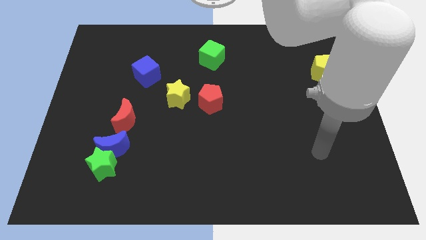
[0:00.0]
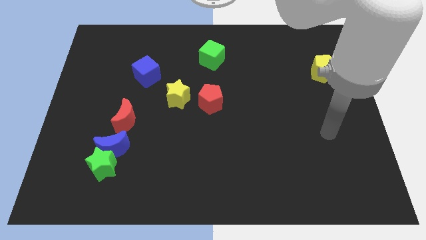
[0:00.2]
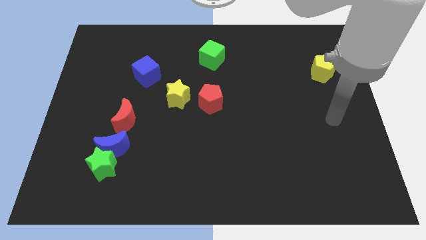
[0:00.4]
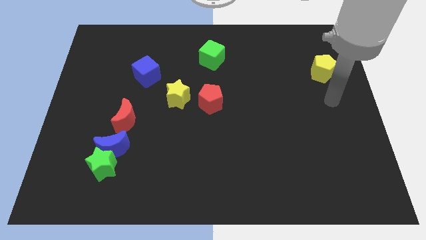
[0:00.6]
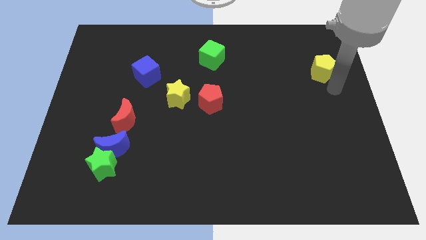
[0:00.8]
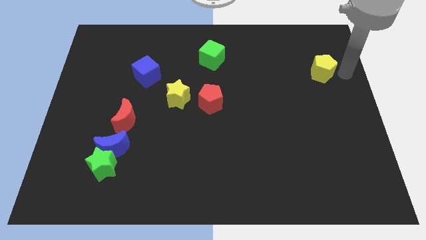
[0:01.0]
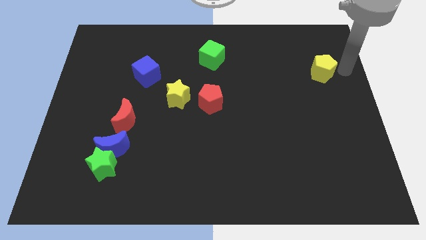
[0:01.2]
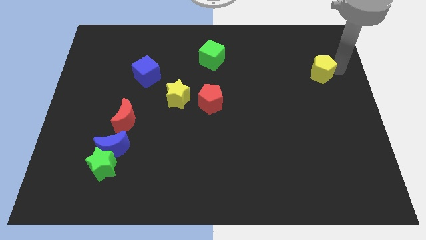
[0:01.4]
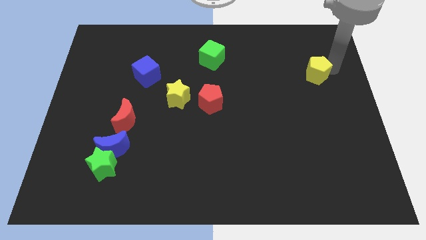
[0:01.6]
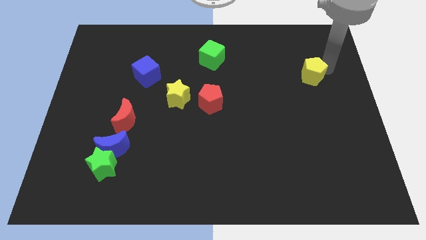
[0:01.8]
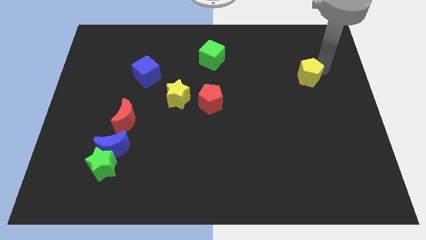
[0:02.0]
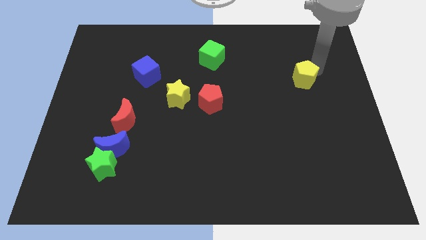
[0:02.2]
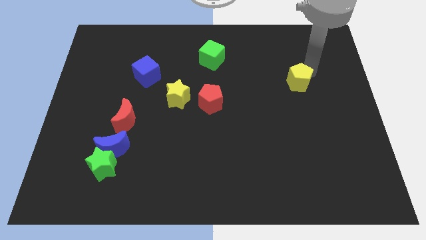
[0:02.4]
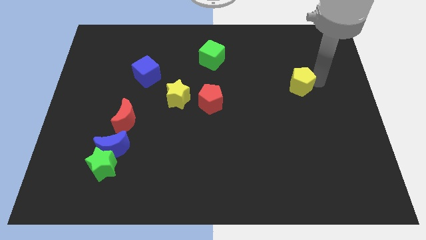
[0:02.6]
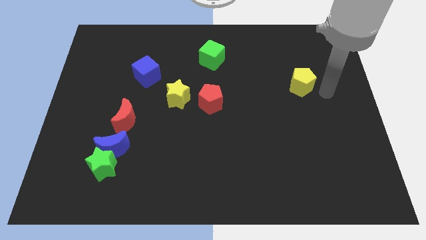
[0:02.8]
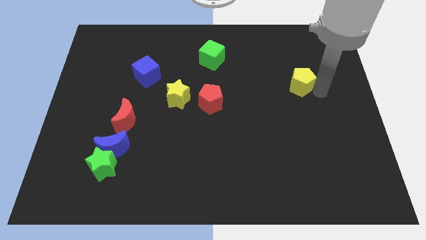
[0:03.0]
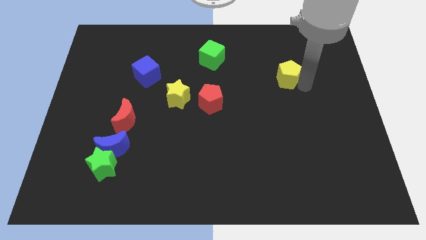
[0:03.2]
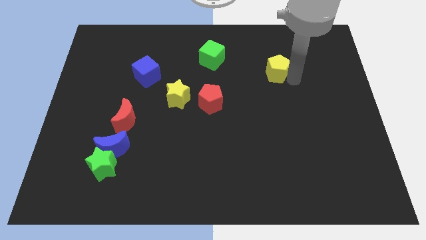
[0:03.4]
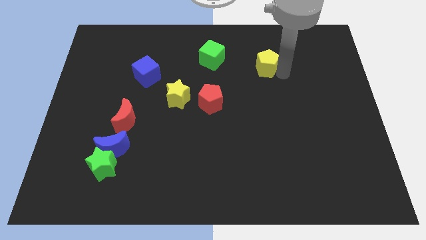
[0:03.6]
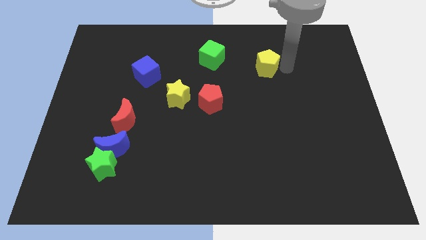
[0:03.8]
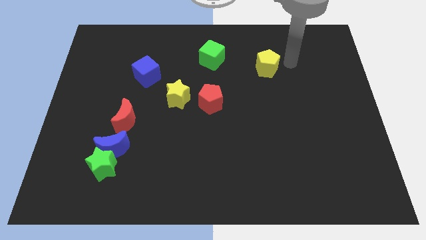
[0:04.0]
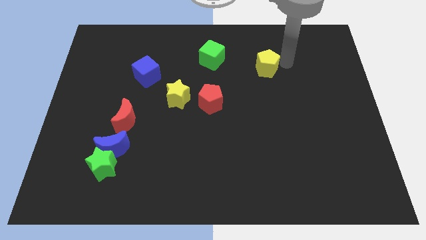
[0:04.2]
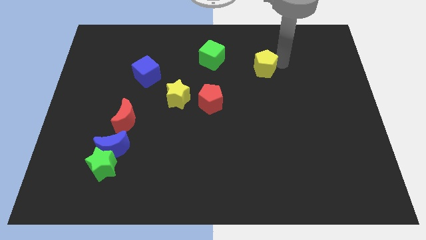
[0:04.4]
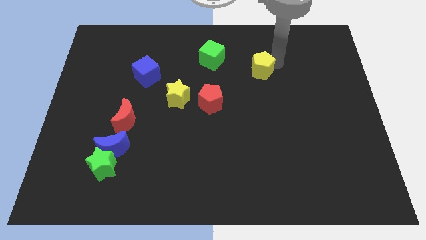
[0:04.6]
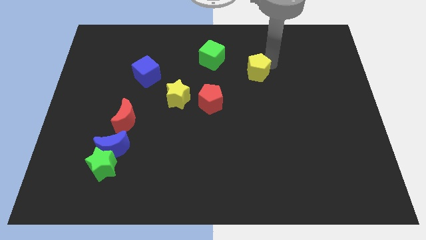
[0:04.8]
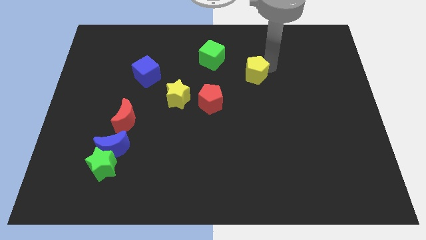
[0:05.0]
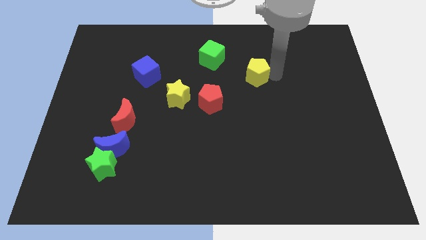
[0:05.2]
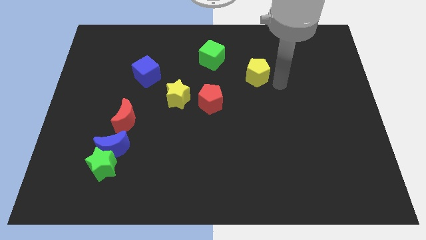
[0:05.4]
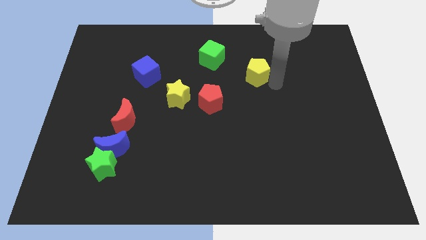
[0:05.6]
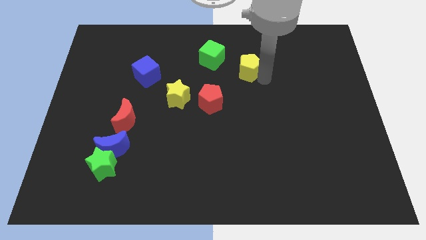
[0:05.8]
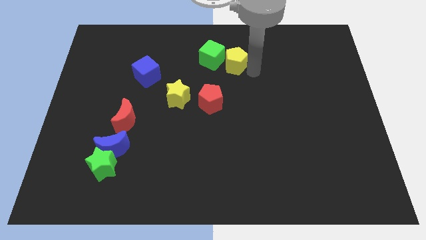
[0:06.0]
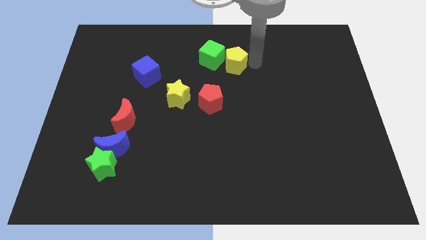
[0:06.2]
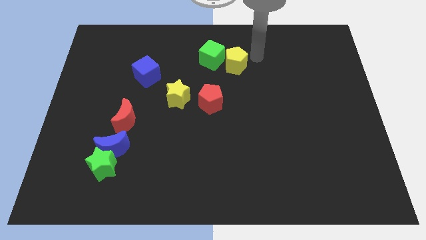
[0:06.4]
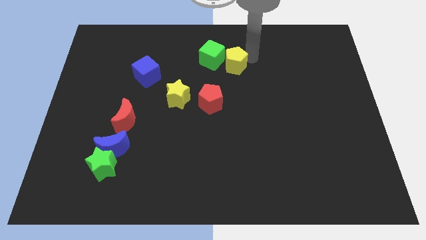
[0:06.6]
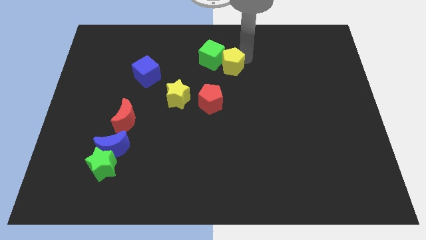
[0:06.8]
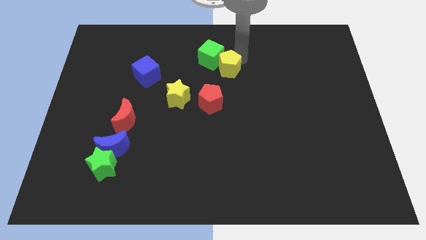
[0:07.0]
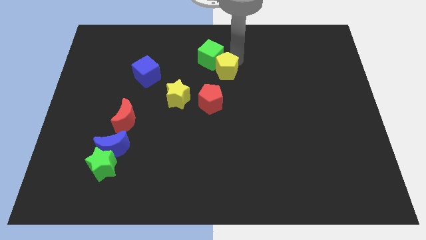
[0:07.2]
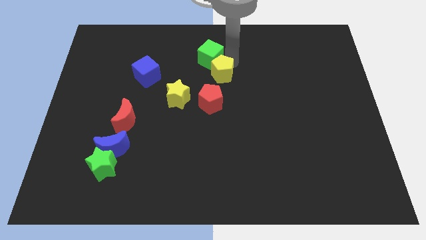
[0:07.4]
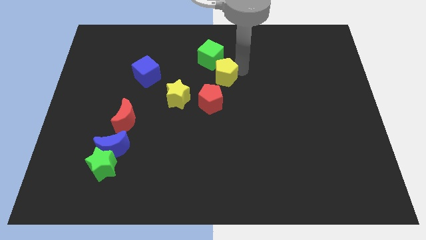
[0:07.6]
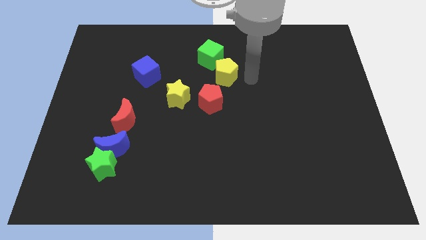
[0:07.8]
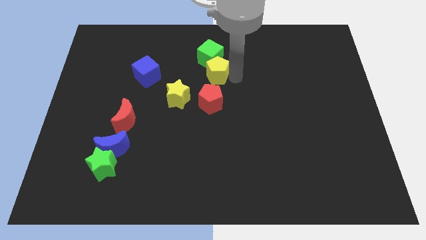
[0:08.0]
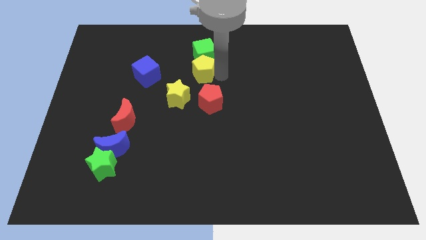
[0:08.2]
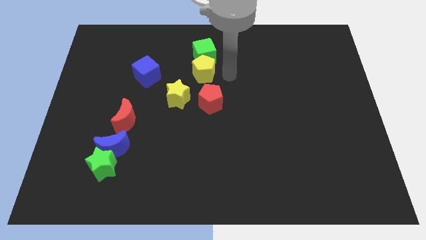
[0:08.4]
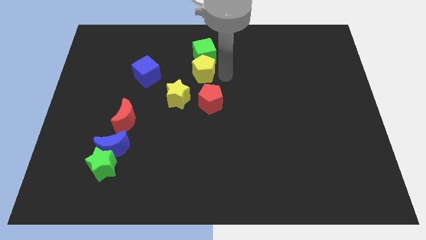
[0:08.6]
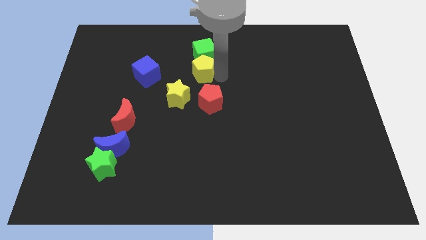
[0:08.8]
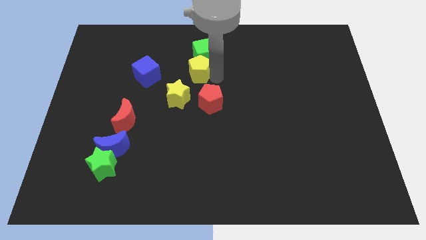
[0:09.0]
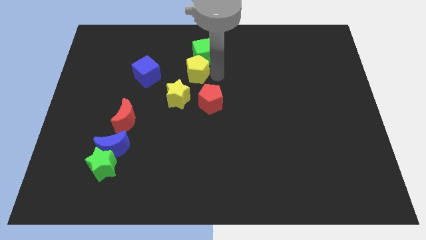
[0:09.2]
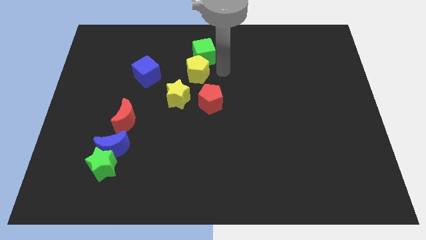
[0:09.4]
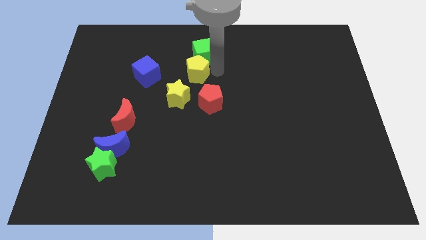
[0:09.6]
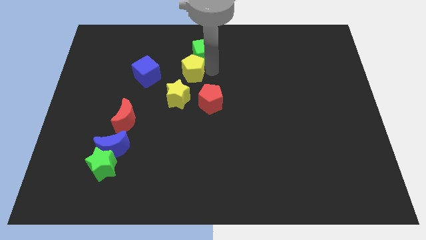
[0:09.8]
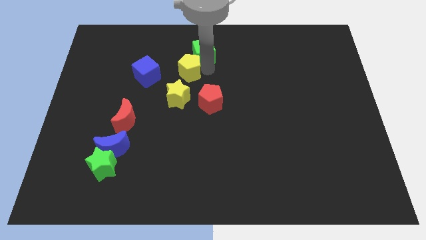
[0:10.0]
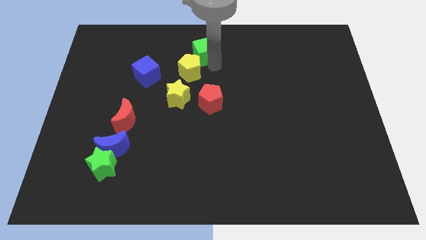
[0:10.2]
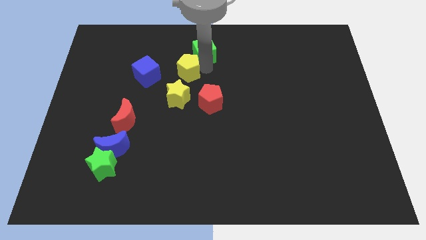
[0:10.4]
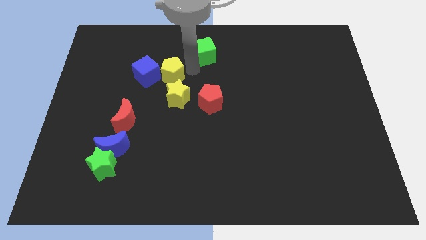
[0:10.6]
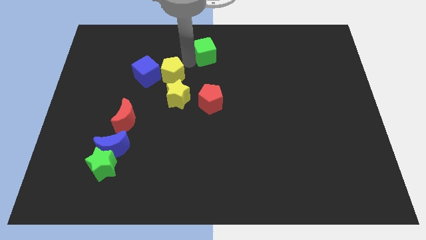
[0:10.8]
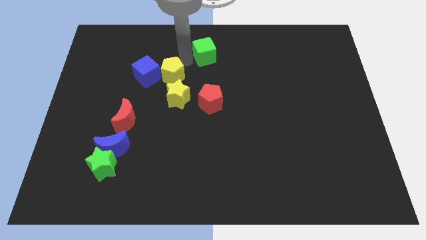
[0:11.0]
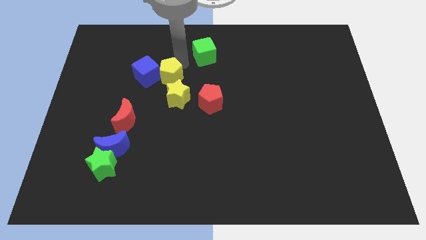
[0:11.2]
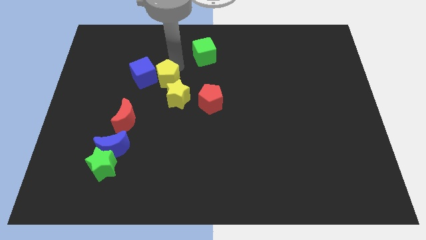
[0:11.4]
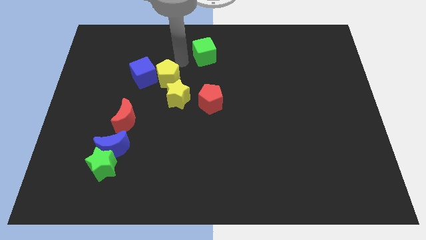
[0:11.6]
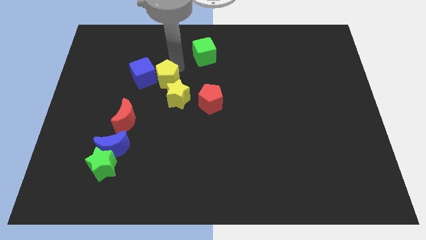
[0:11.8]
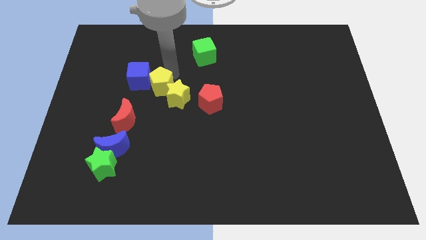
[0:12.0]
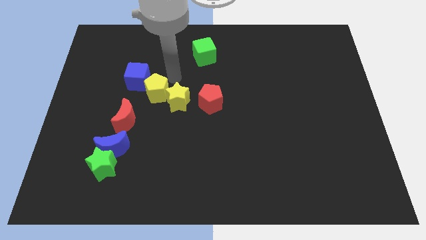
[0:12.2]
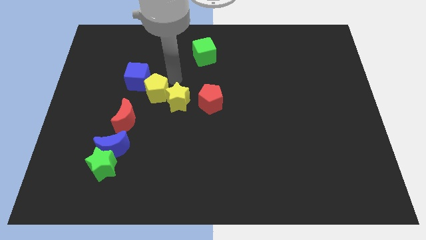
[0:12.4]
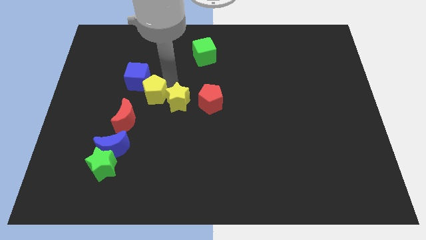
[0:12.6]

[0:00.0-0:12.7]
slide the yellow pentagon to the bottom of the blue cube
